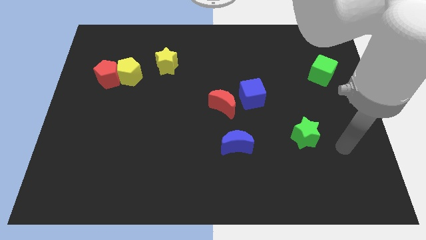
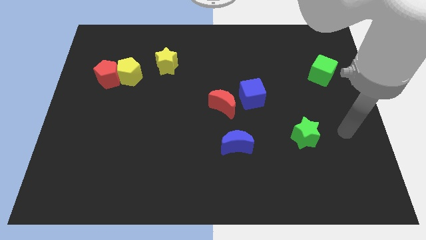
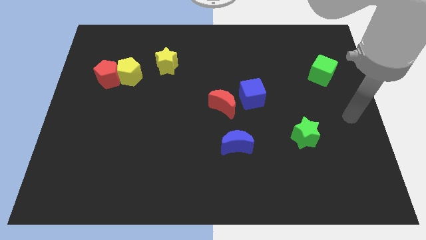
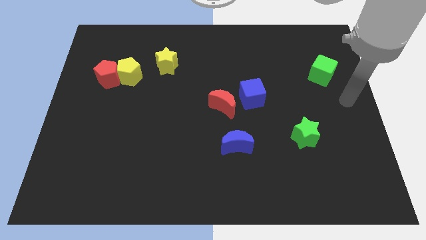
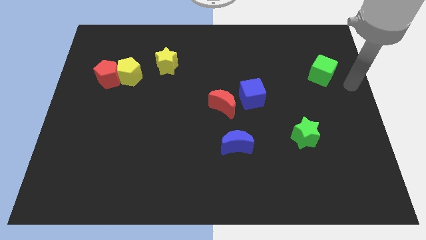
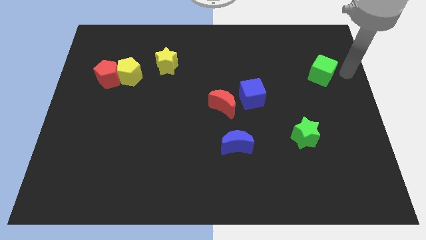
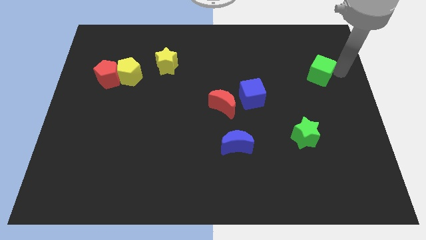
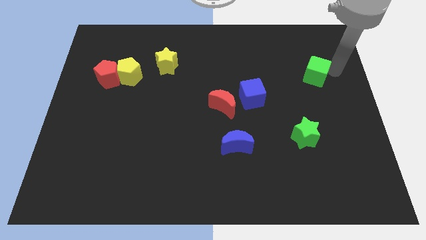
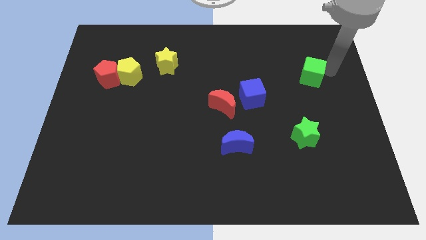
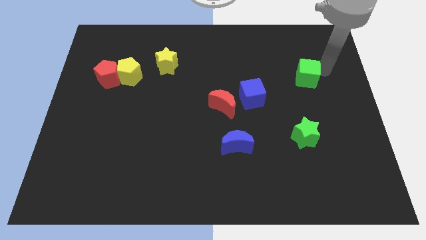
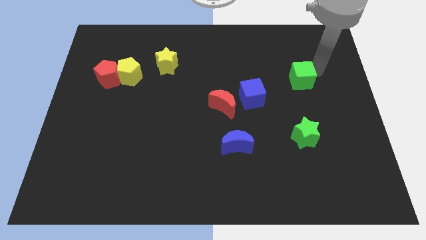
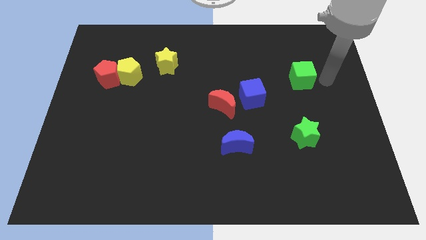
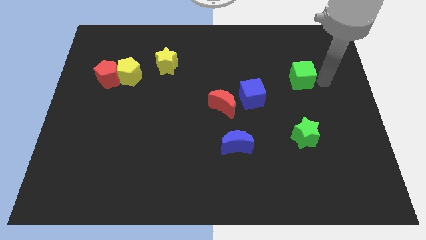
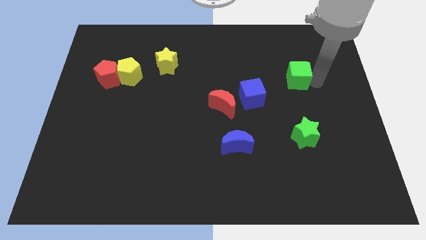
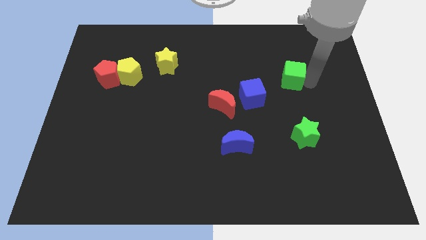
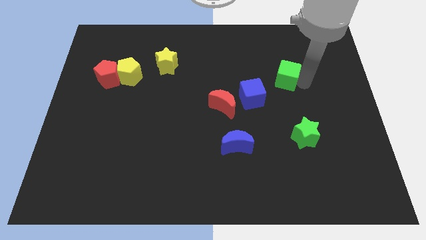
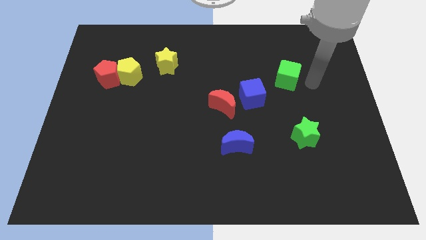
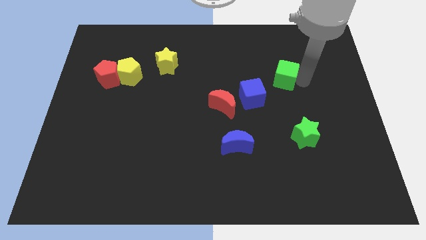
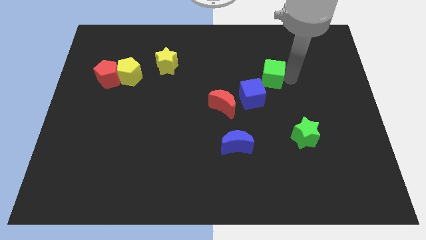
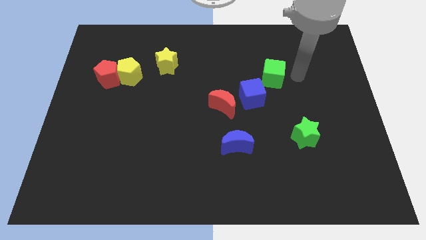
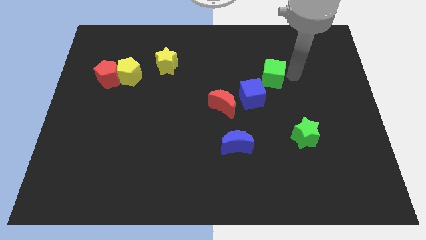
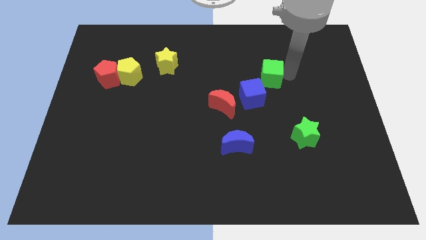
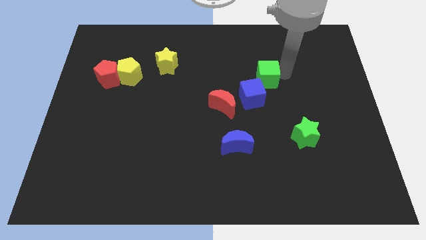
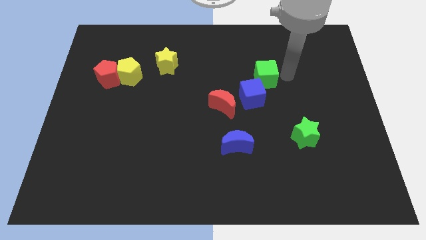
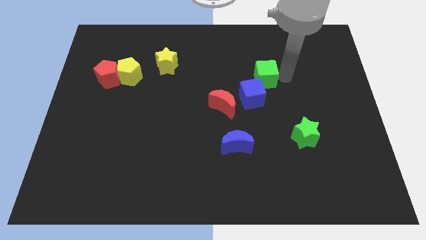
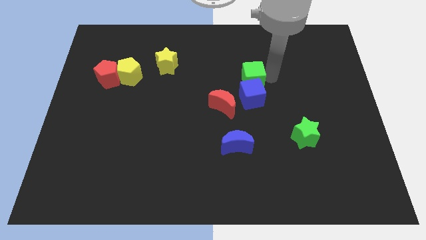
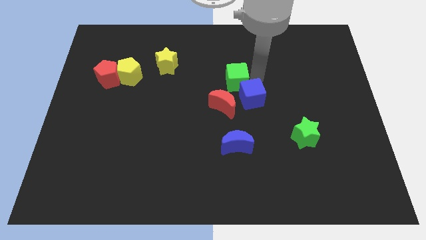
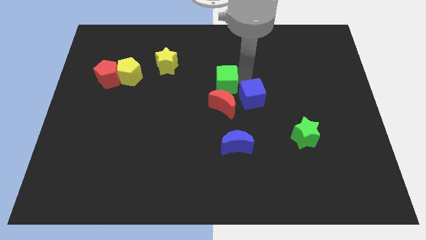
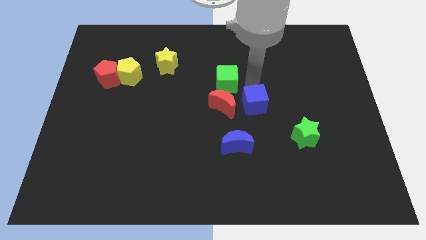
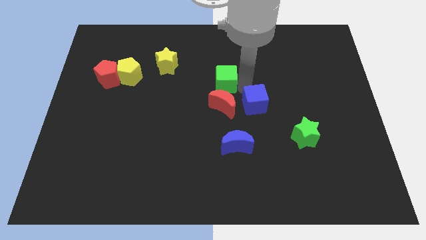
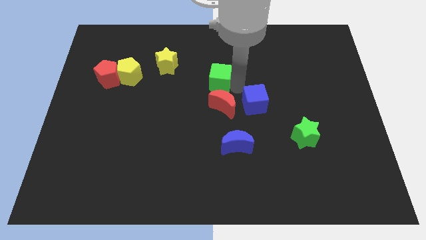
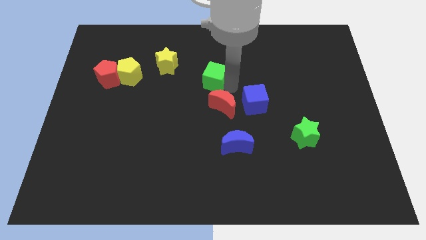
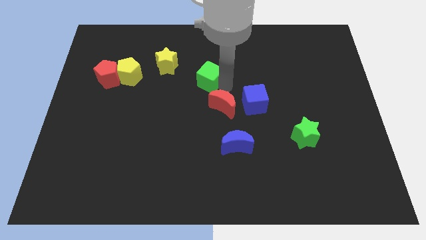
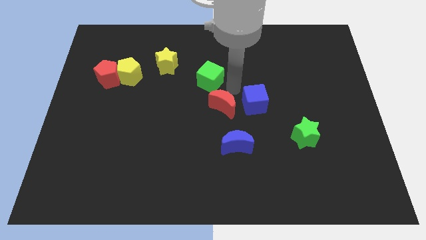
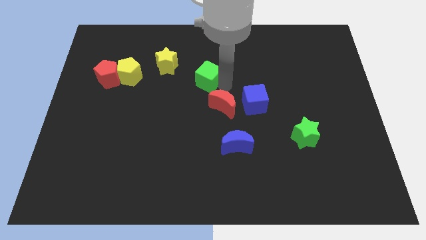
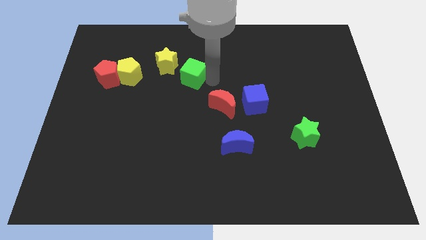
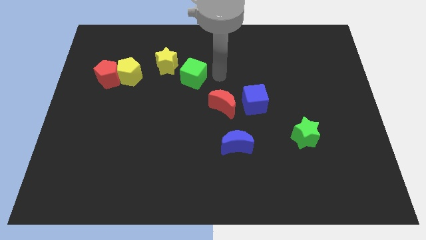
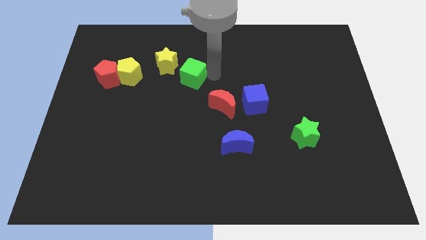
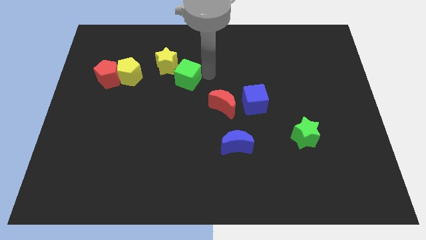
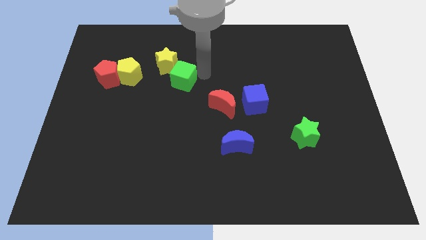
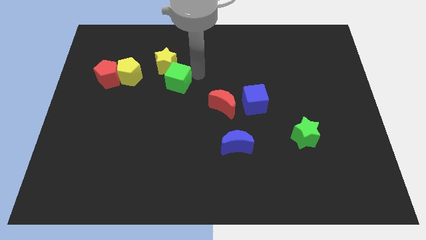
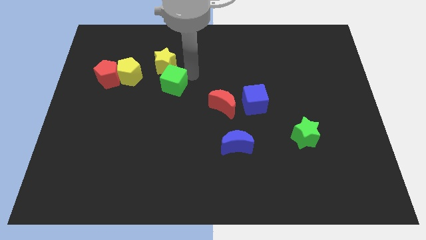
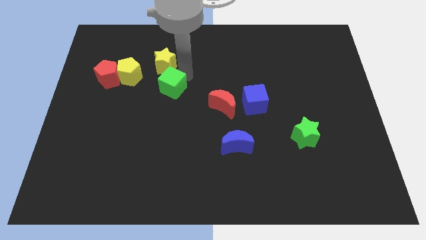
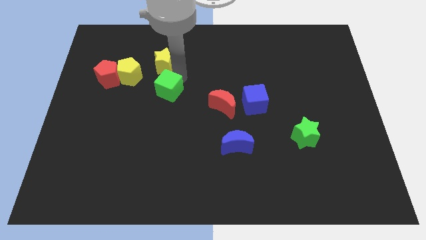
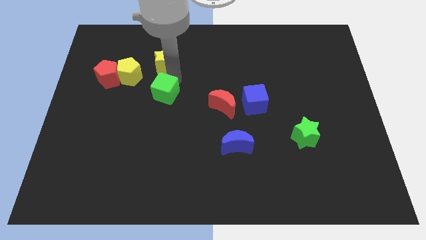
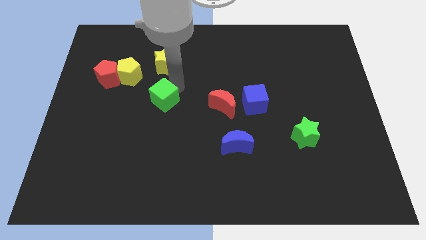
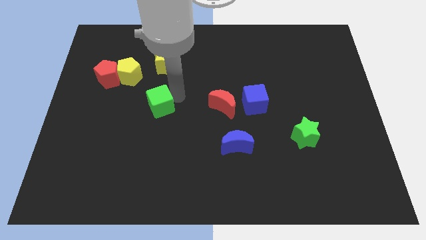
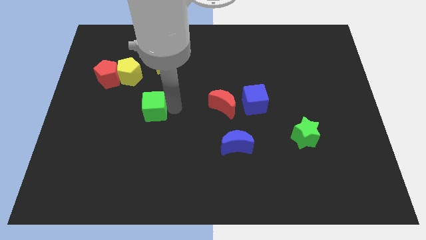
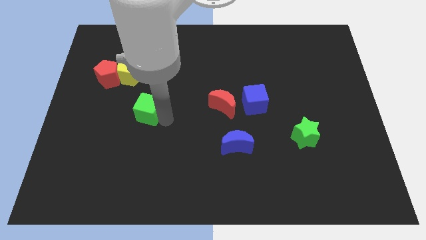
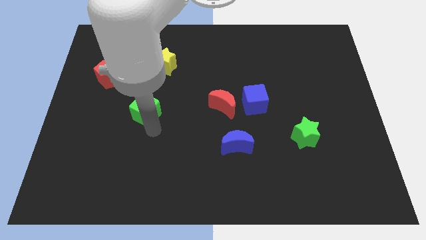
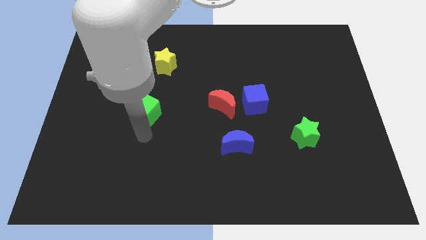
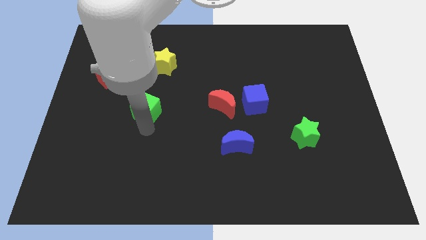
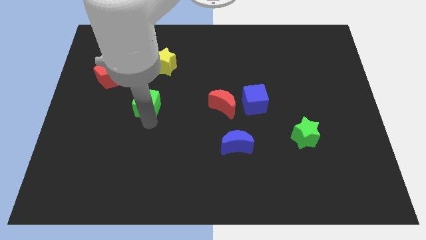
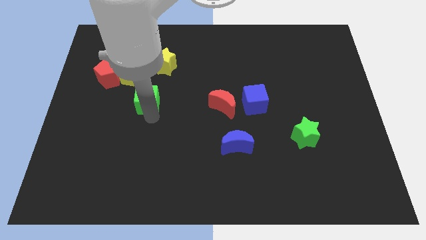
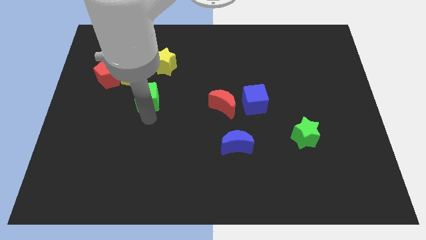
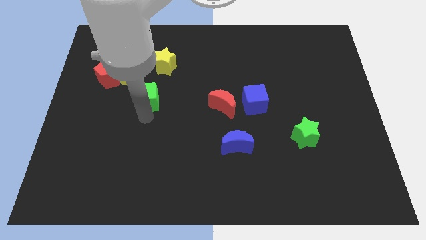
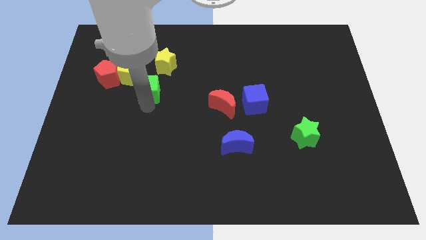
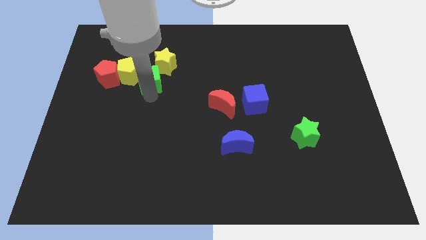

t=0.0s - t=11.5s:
move the green cube close to the yellow pentagon

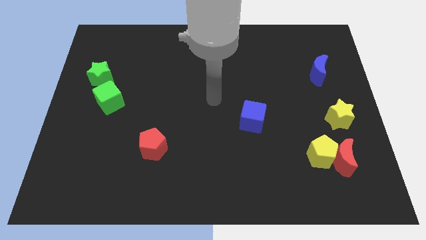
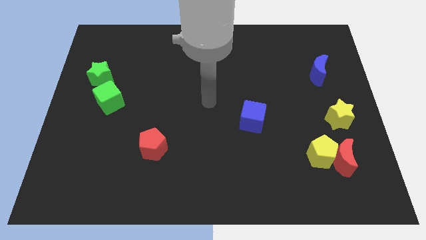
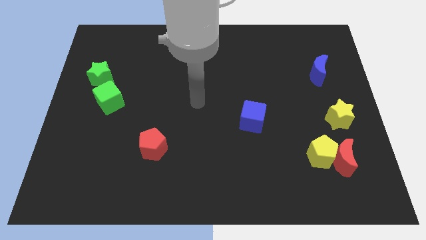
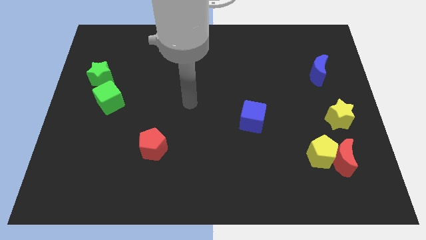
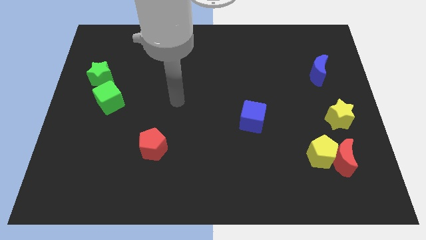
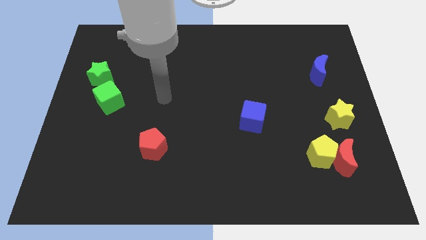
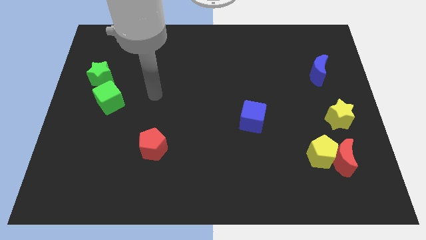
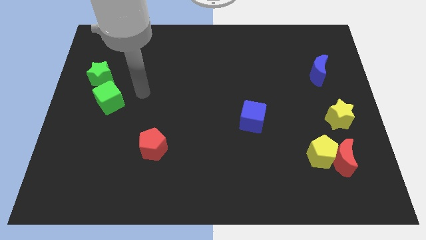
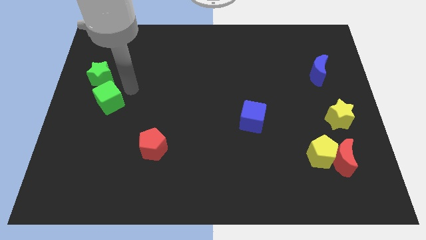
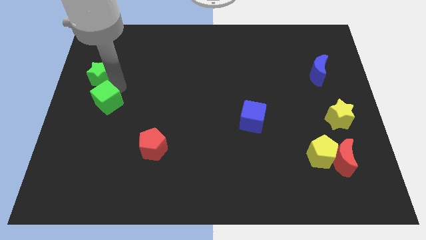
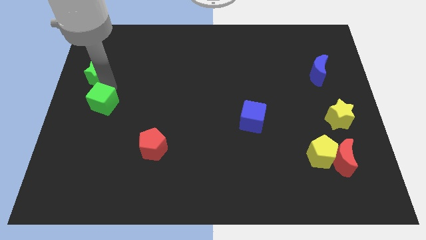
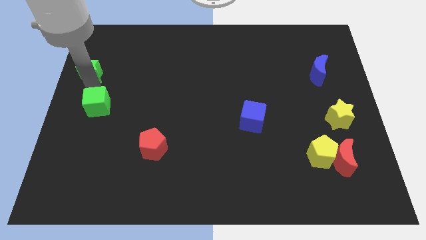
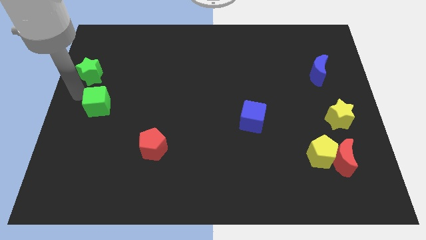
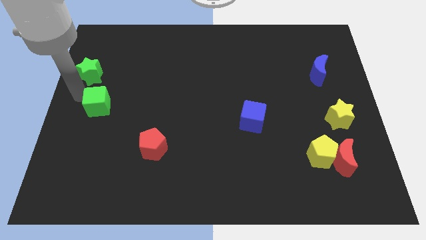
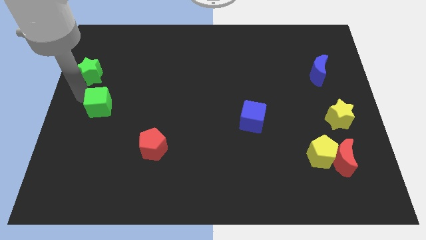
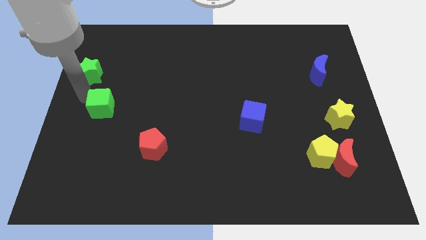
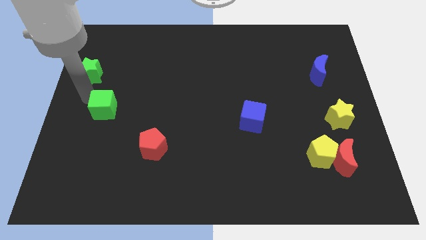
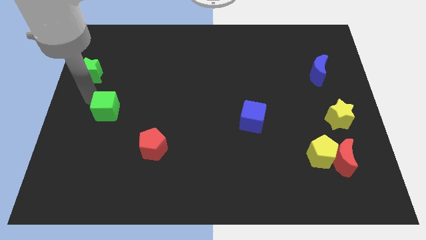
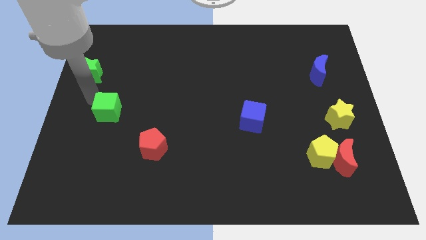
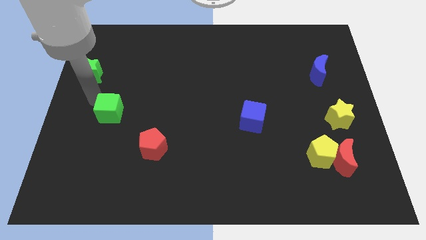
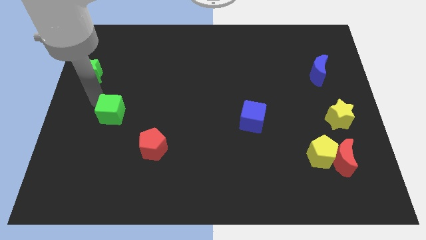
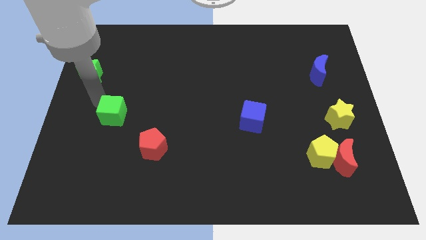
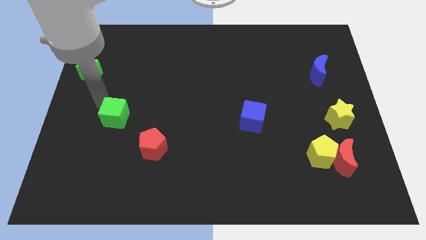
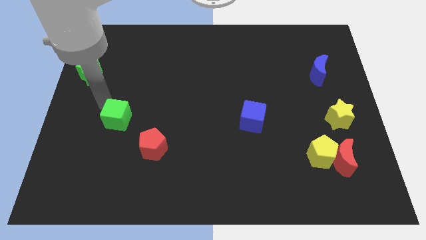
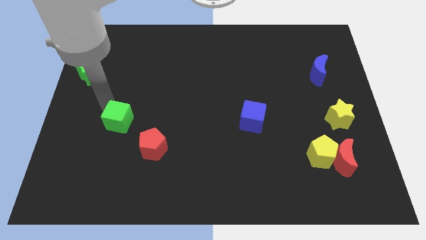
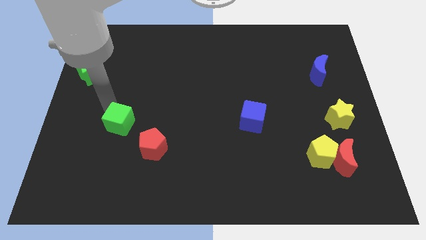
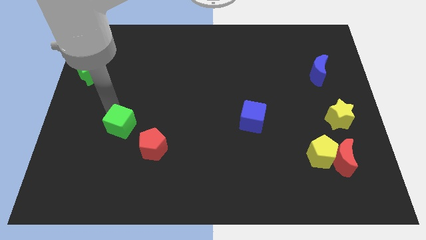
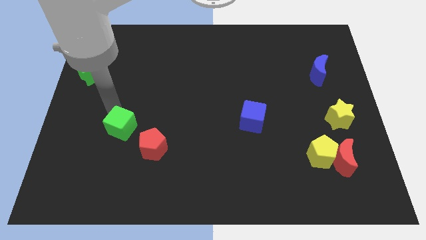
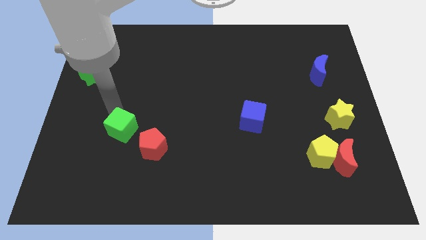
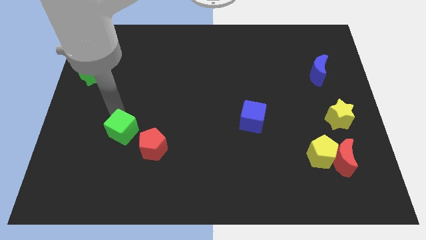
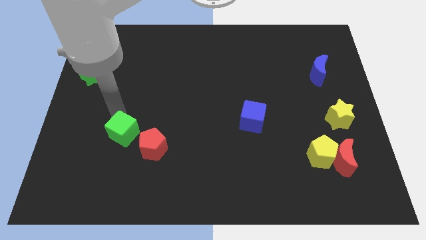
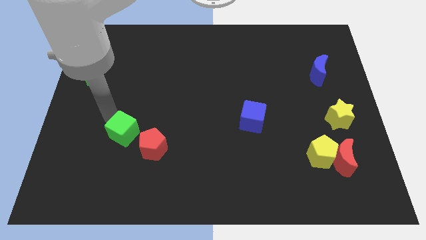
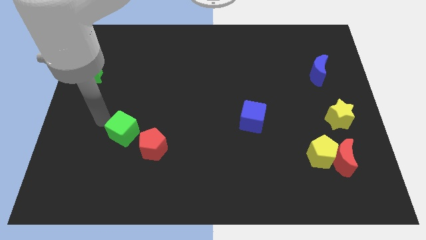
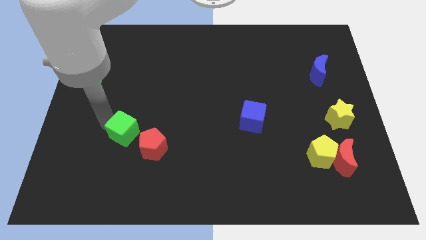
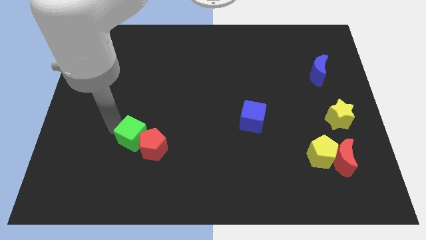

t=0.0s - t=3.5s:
slide the green cube towards the red pentagon
